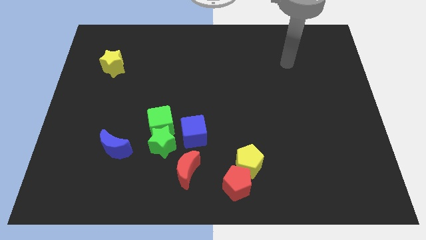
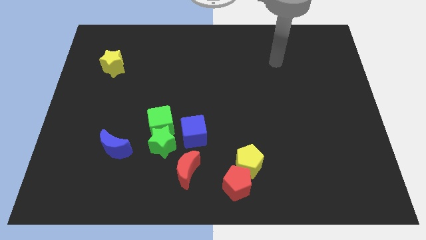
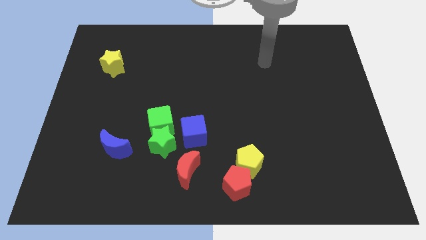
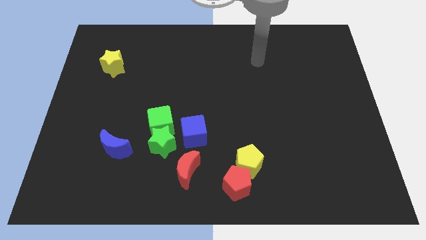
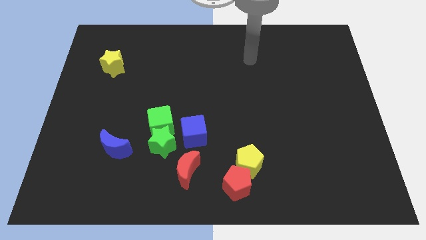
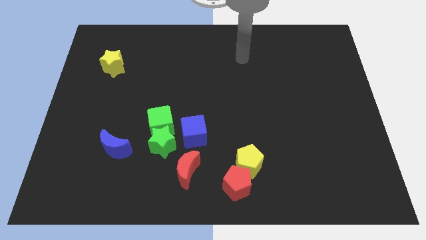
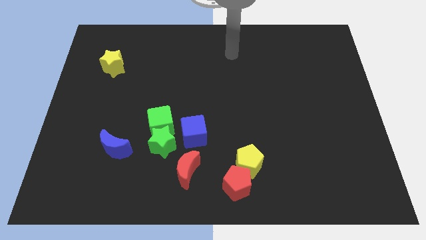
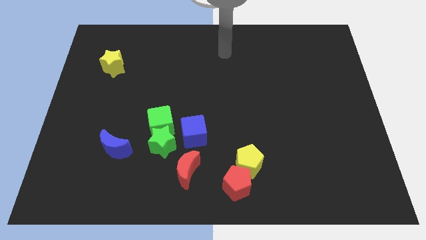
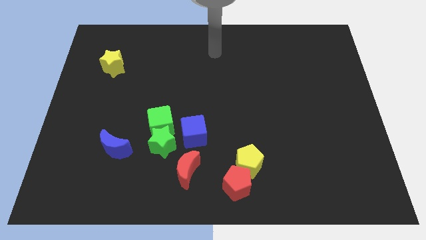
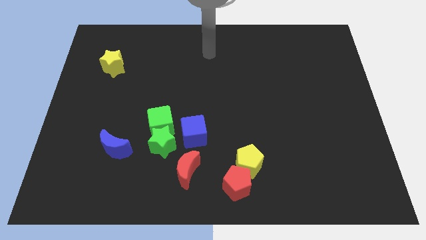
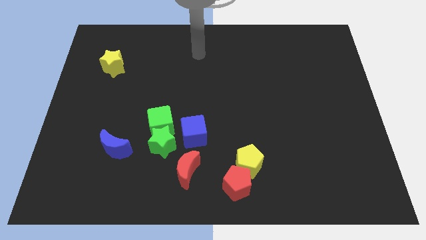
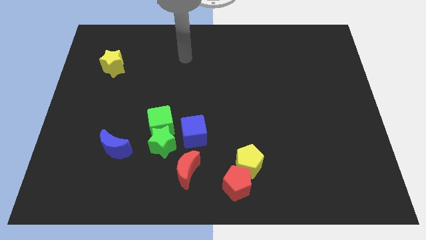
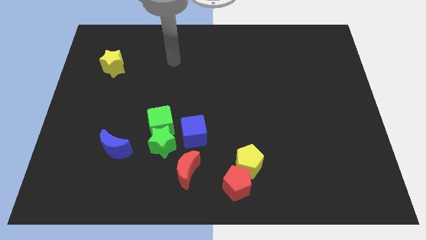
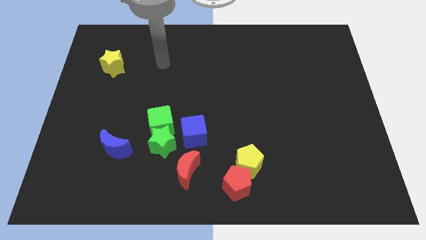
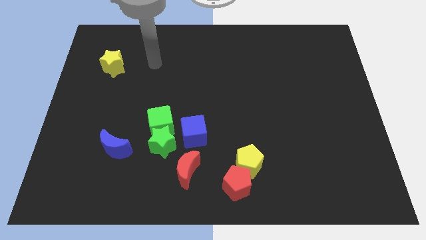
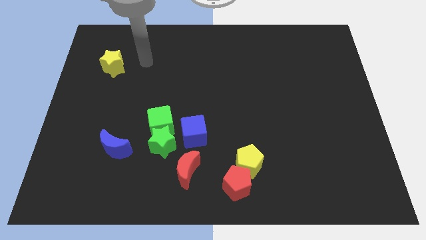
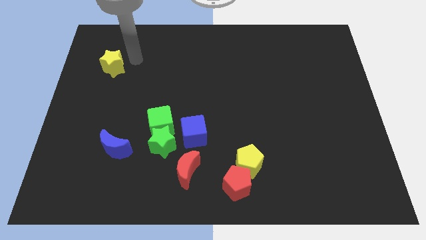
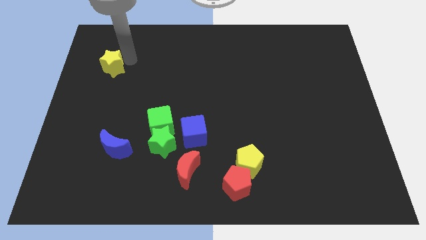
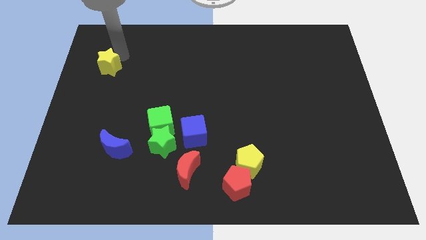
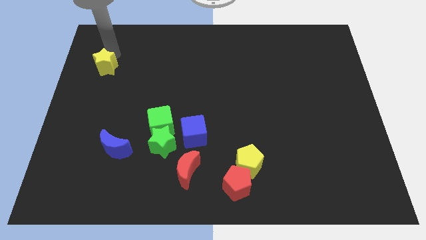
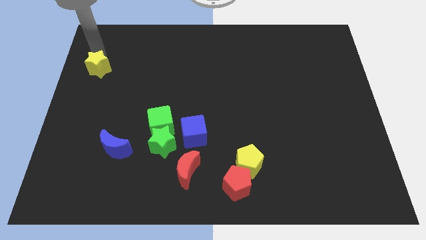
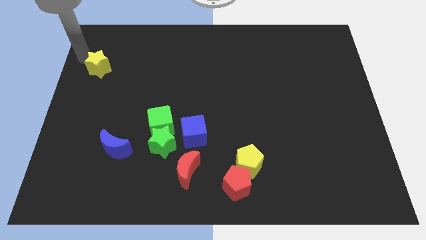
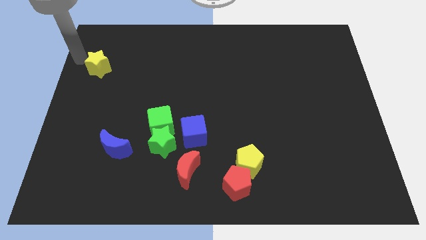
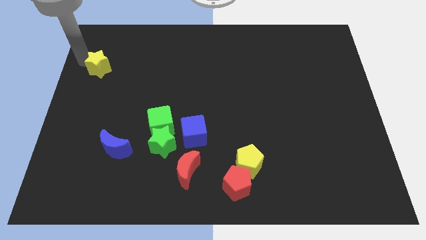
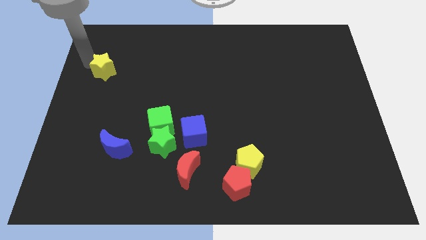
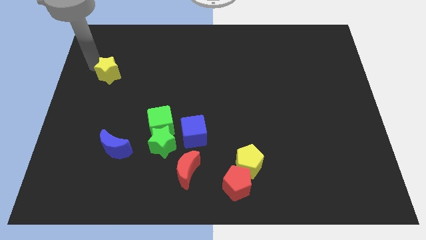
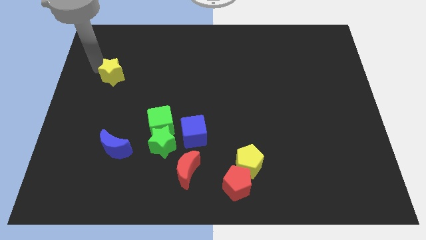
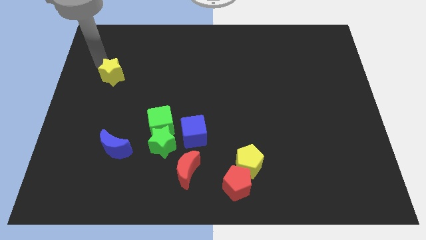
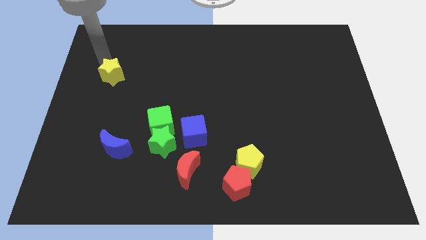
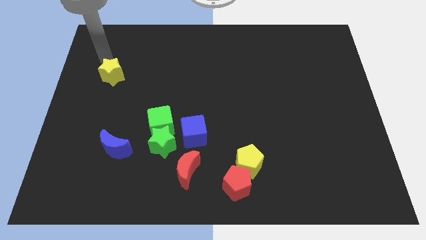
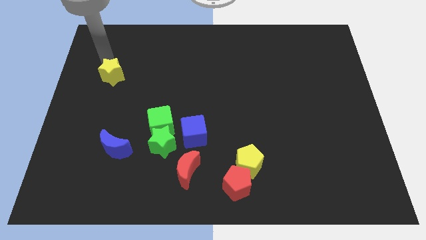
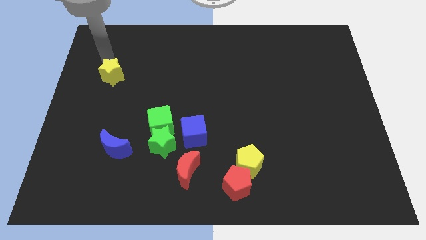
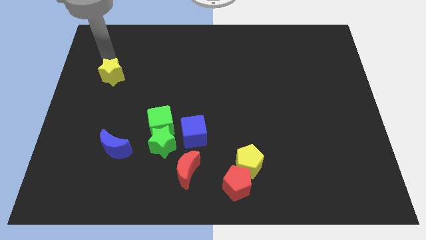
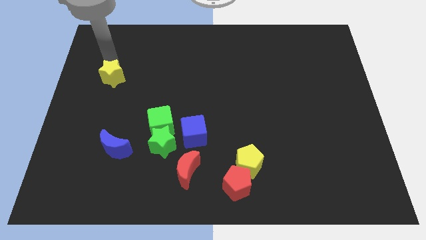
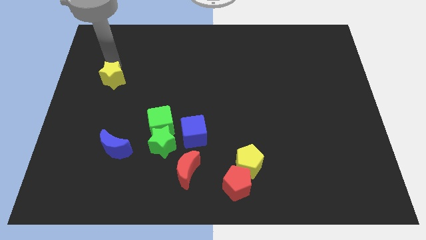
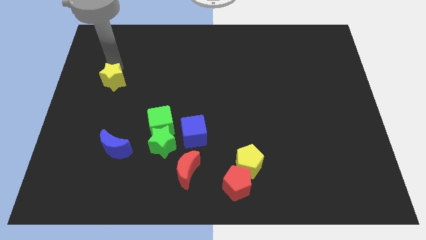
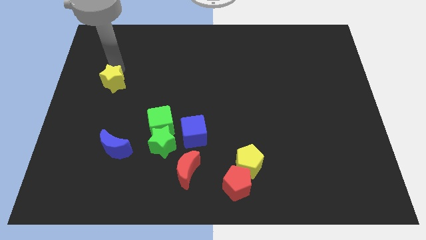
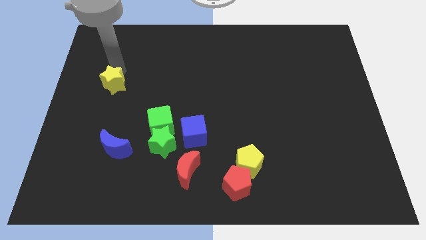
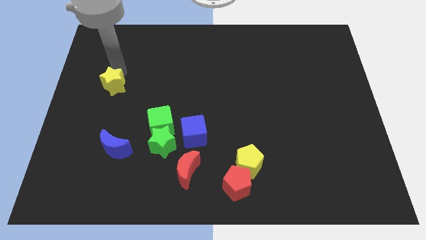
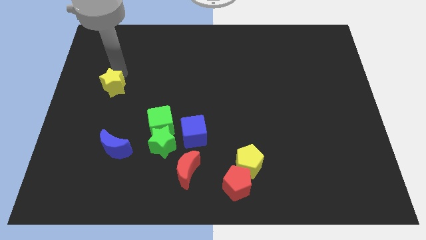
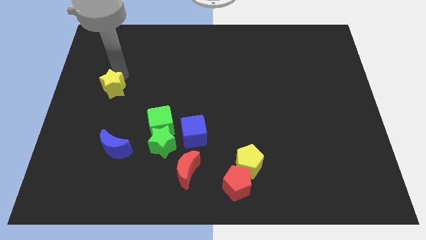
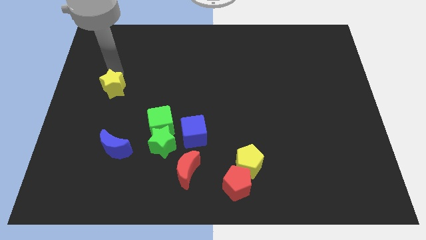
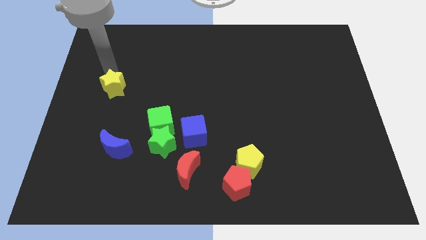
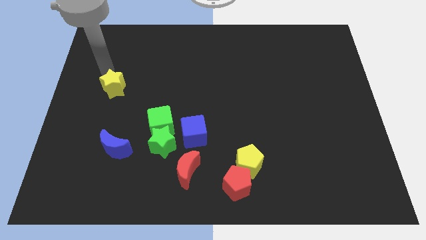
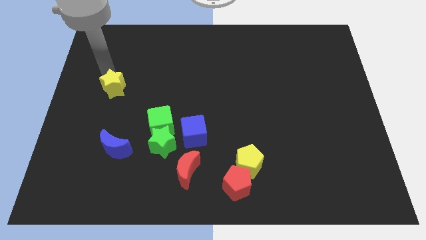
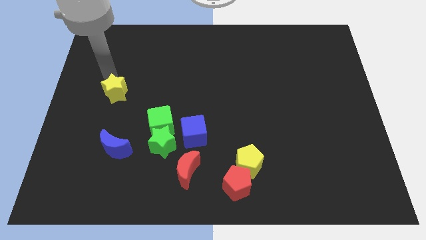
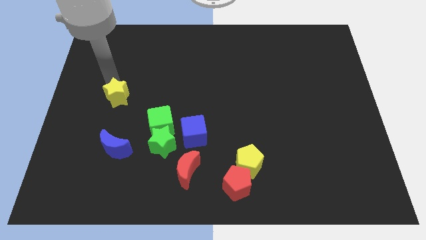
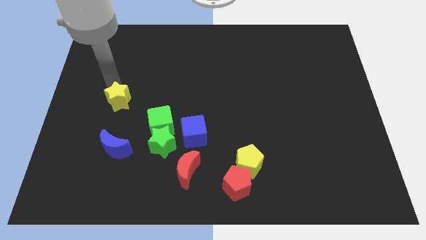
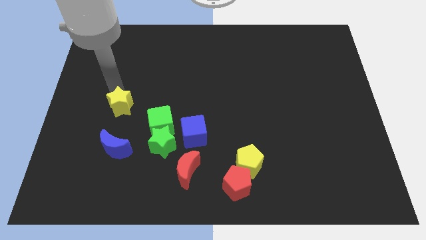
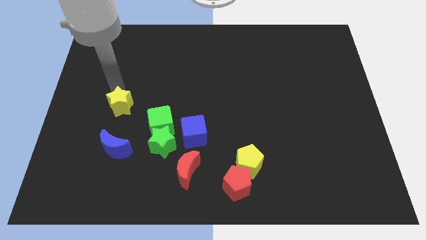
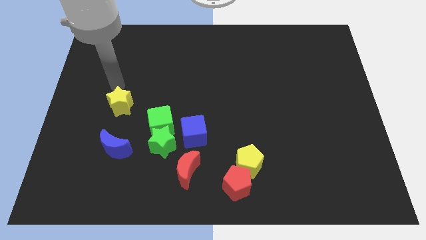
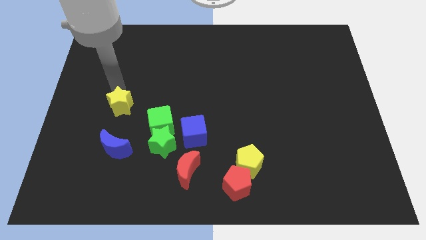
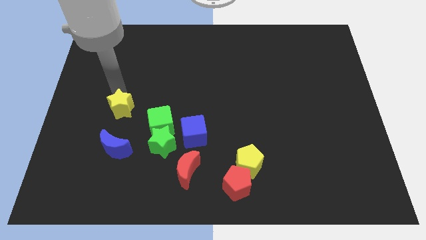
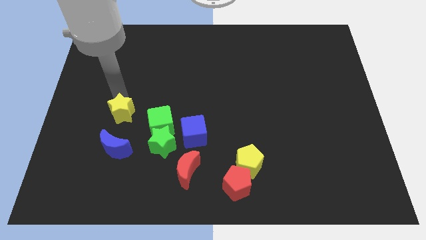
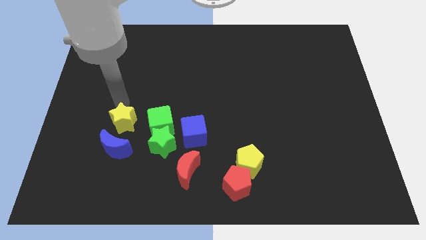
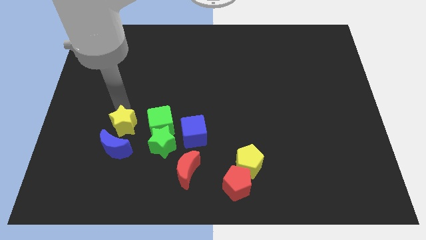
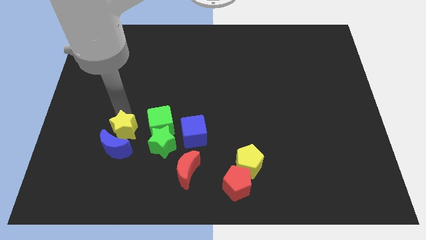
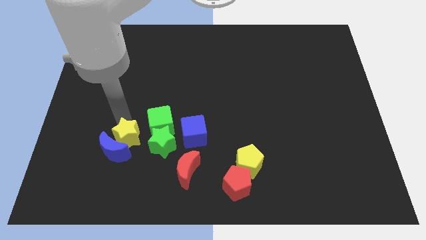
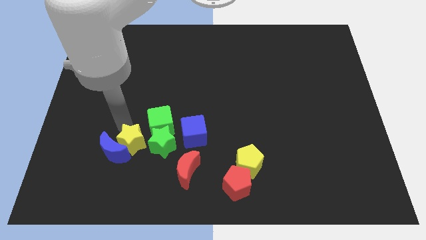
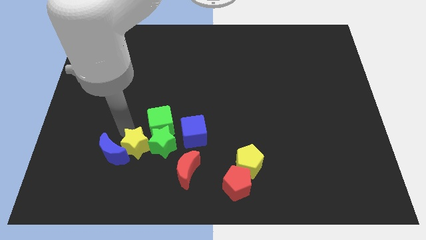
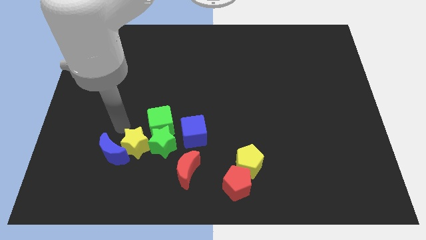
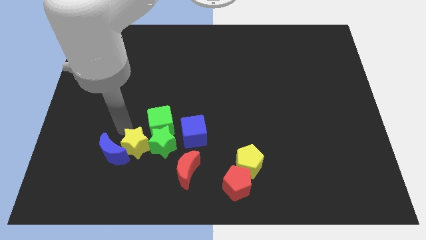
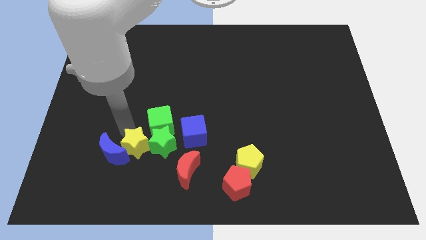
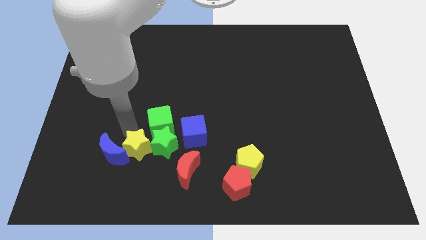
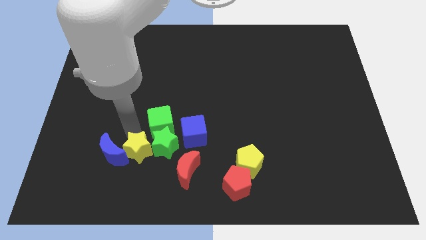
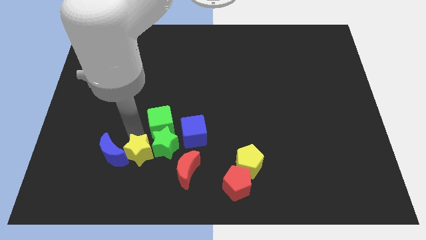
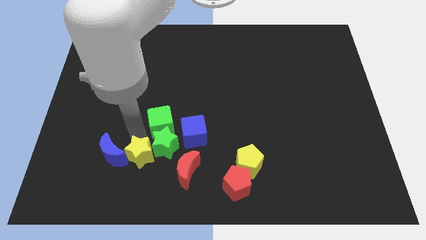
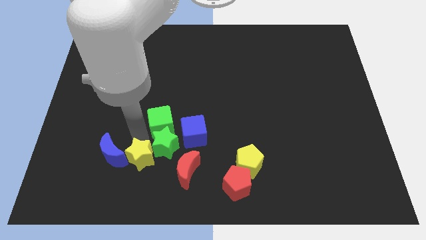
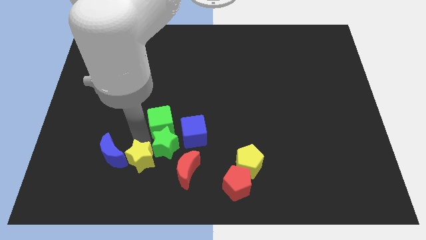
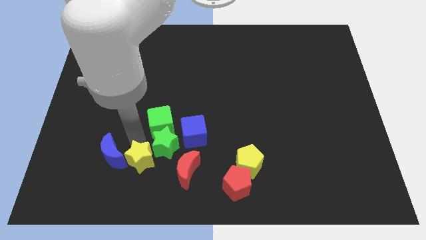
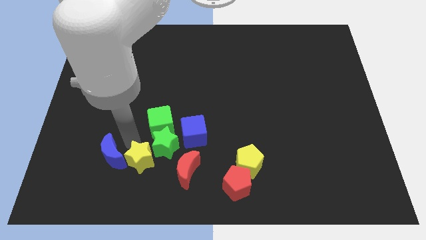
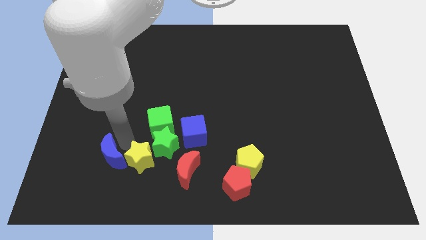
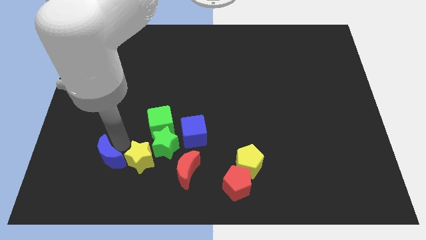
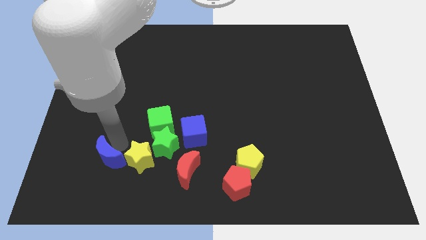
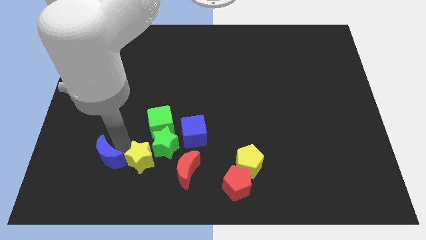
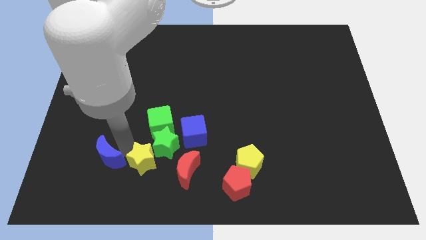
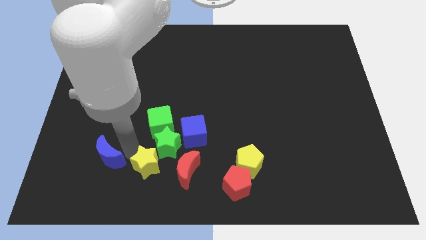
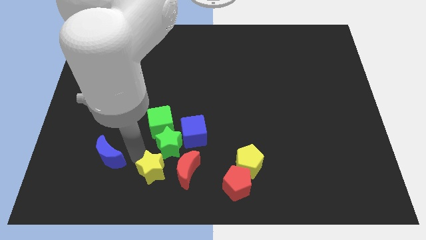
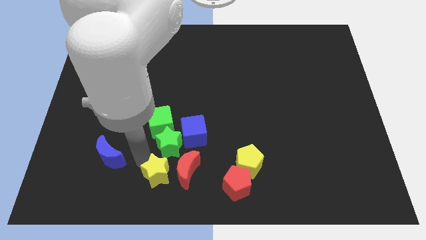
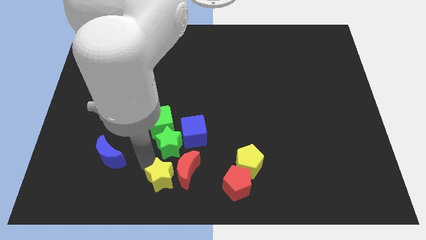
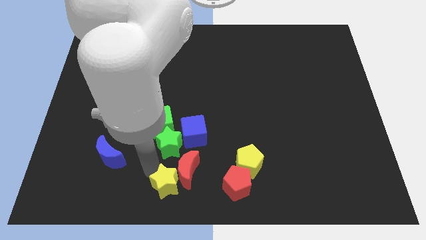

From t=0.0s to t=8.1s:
put the yellow star below the blue cube
